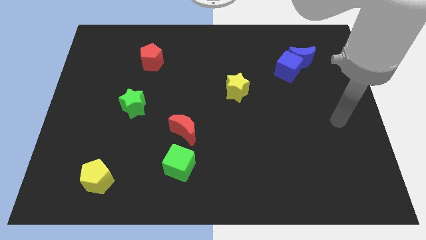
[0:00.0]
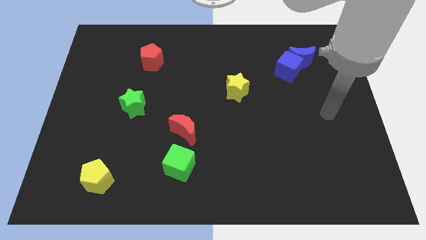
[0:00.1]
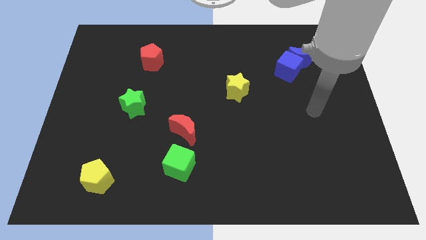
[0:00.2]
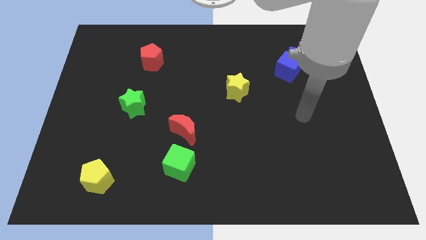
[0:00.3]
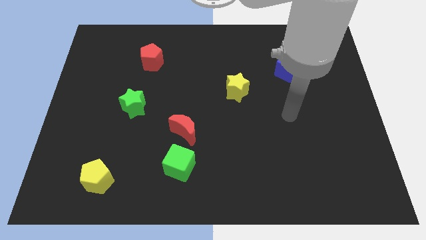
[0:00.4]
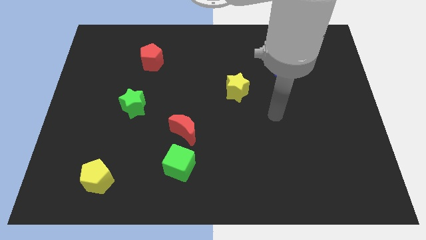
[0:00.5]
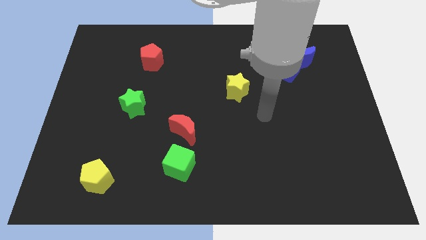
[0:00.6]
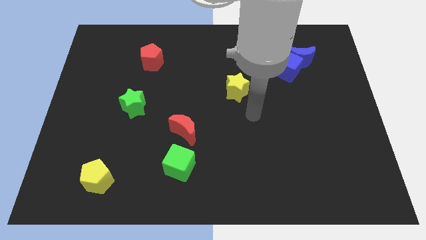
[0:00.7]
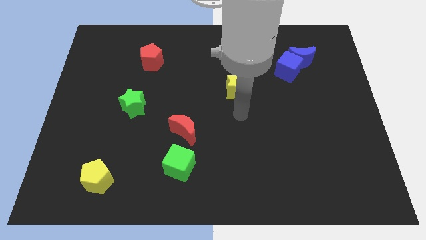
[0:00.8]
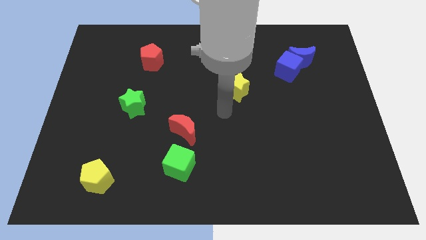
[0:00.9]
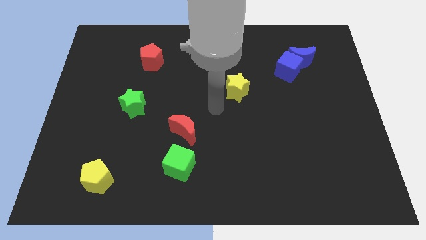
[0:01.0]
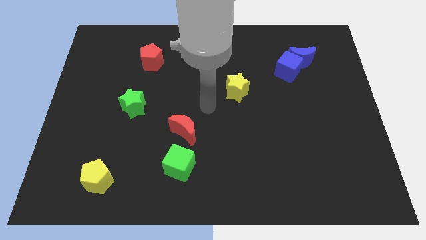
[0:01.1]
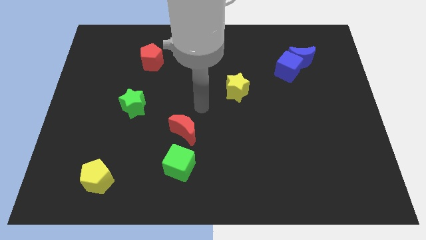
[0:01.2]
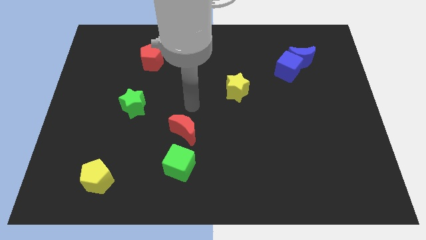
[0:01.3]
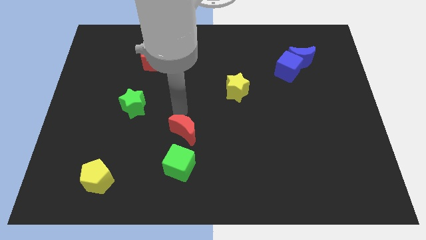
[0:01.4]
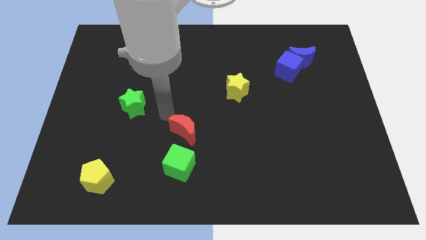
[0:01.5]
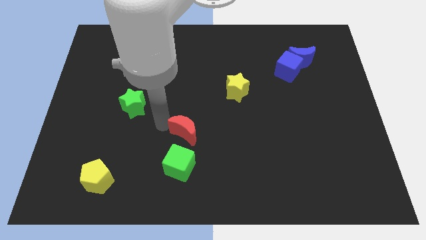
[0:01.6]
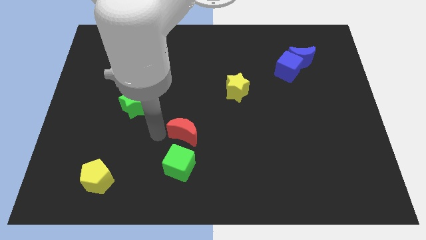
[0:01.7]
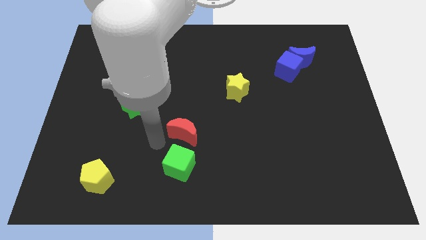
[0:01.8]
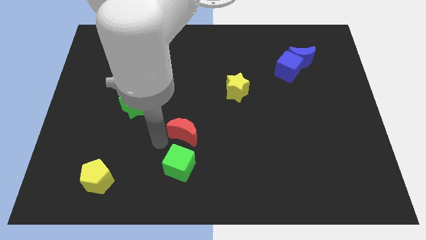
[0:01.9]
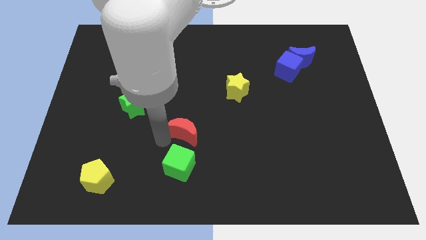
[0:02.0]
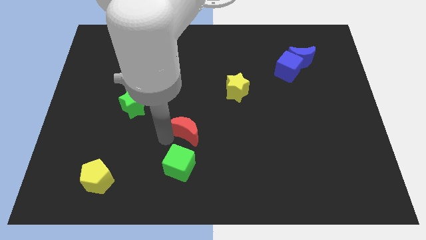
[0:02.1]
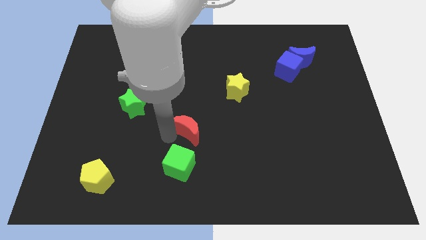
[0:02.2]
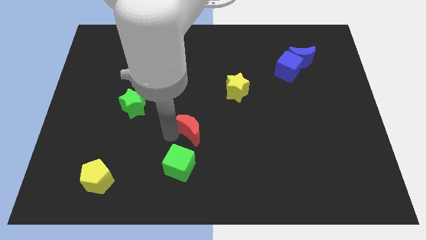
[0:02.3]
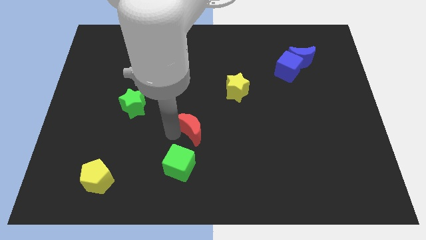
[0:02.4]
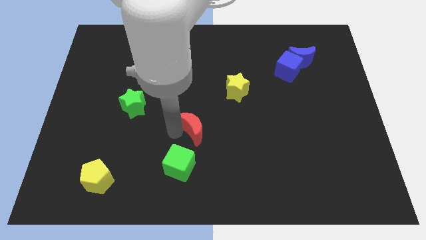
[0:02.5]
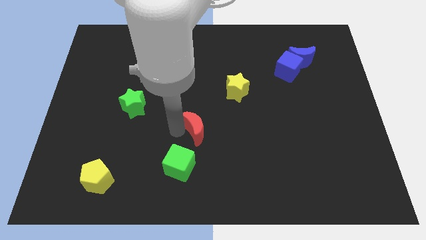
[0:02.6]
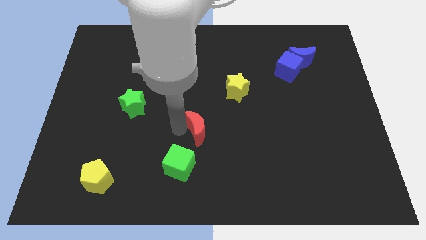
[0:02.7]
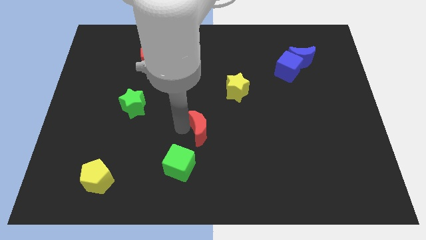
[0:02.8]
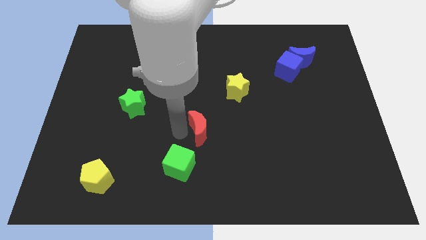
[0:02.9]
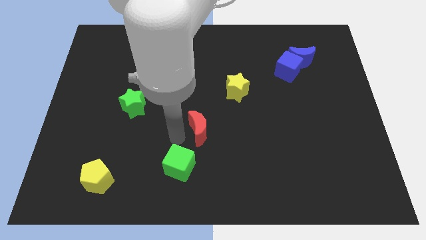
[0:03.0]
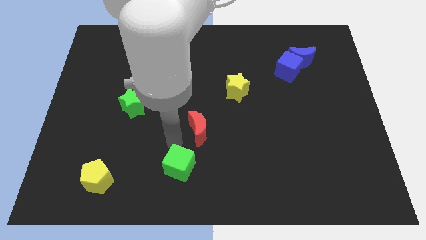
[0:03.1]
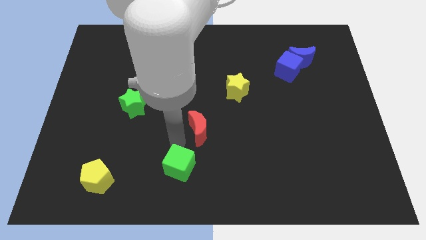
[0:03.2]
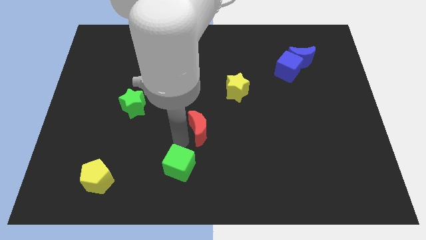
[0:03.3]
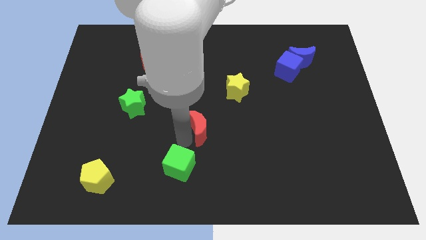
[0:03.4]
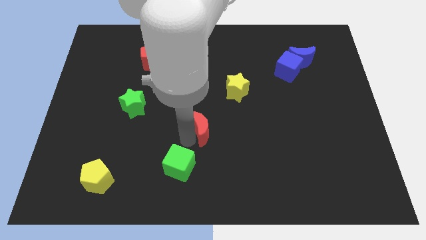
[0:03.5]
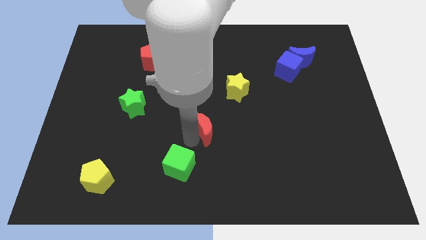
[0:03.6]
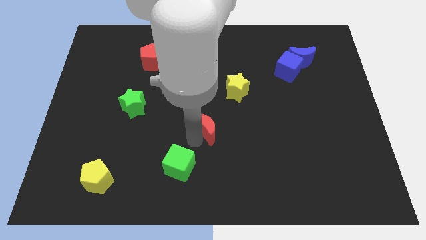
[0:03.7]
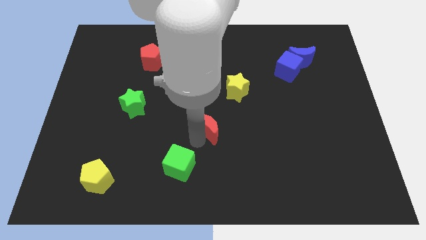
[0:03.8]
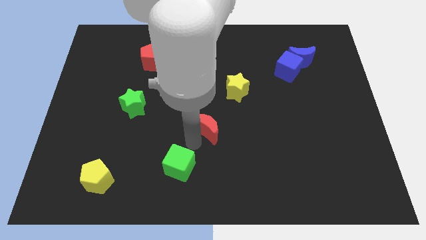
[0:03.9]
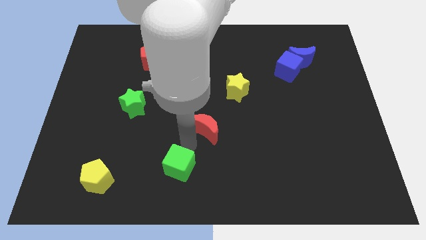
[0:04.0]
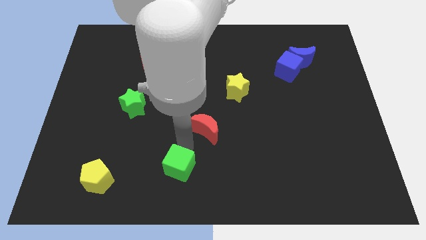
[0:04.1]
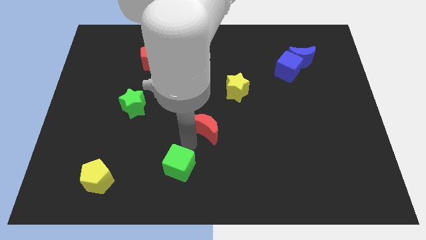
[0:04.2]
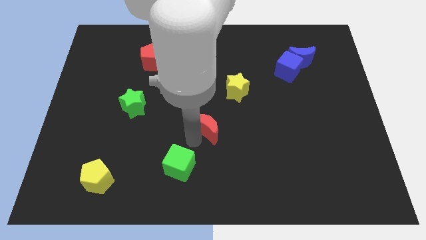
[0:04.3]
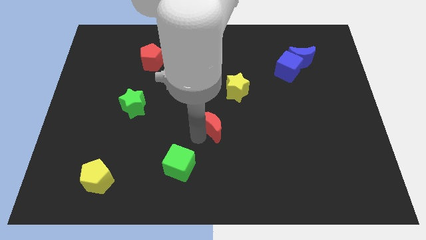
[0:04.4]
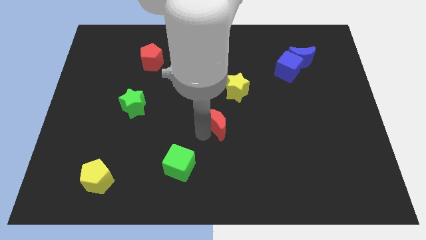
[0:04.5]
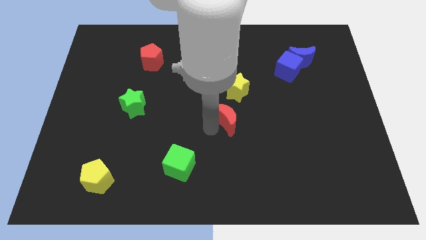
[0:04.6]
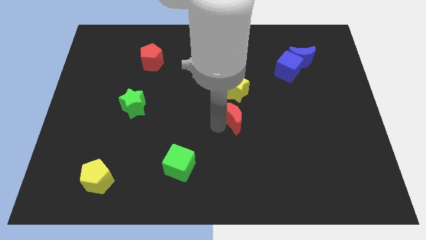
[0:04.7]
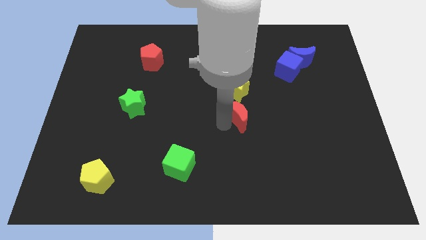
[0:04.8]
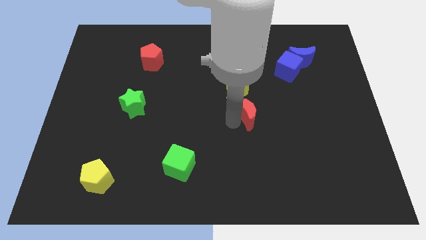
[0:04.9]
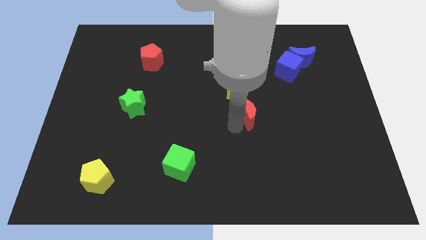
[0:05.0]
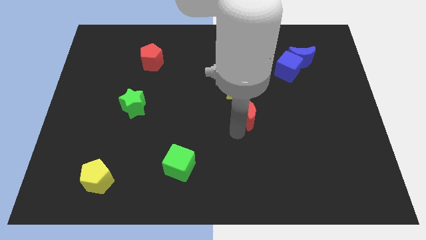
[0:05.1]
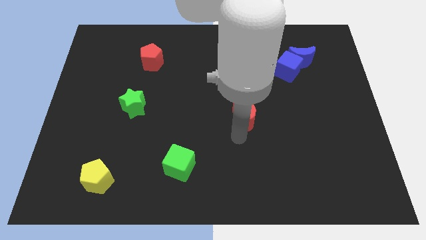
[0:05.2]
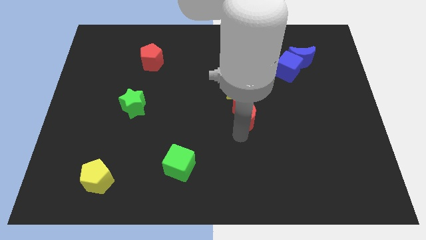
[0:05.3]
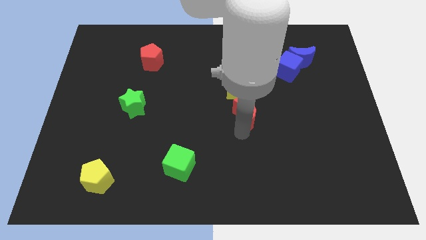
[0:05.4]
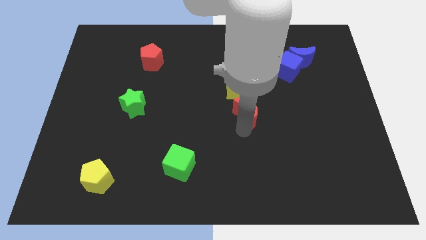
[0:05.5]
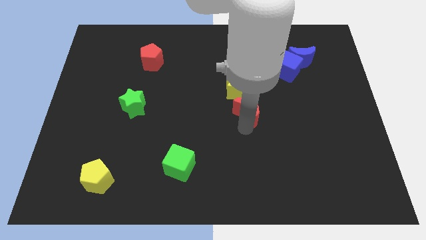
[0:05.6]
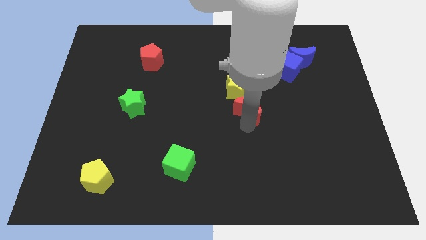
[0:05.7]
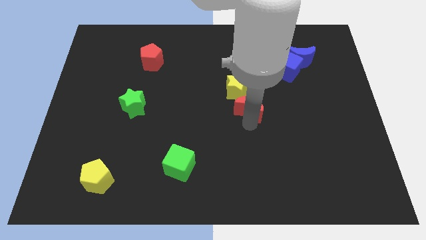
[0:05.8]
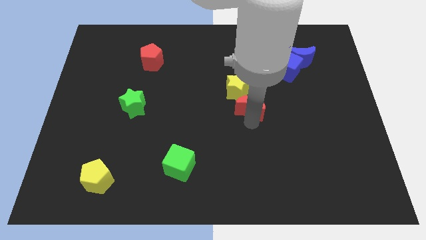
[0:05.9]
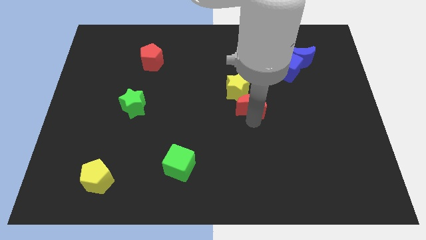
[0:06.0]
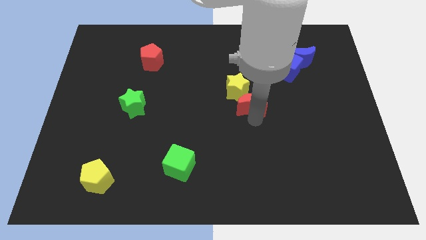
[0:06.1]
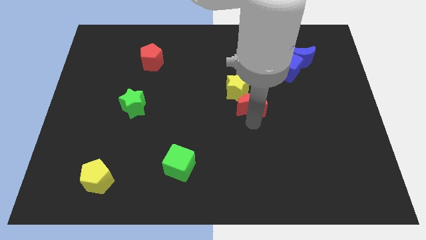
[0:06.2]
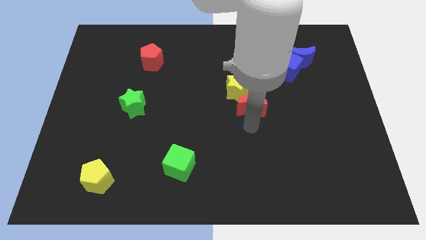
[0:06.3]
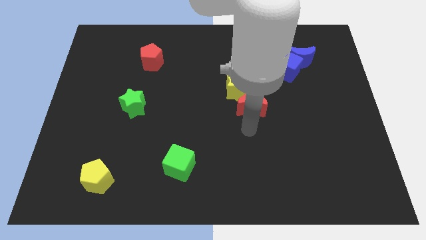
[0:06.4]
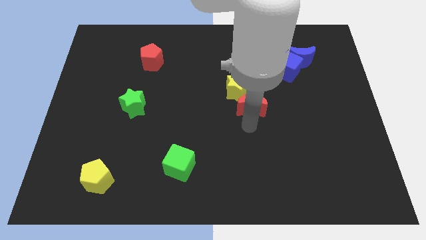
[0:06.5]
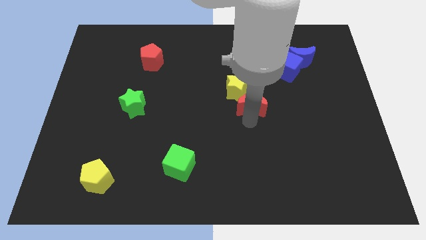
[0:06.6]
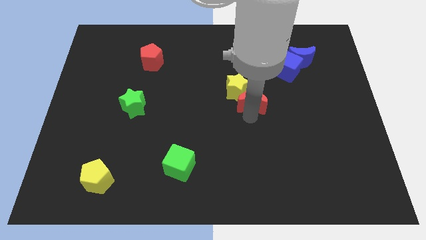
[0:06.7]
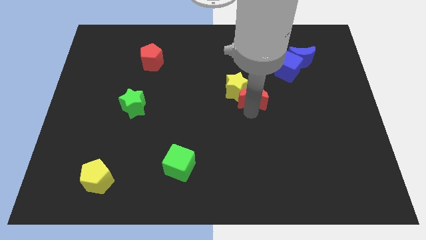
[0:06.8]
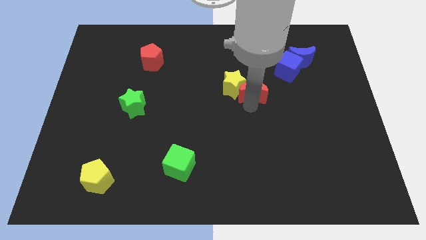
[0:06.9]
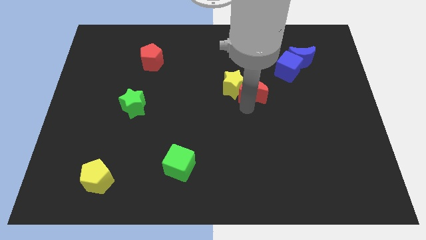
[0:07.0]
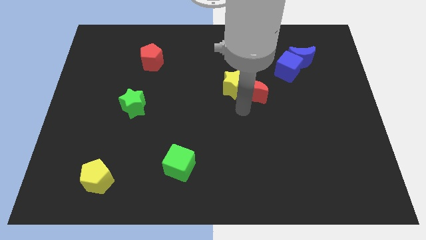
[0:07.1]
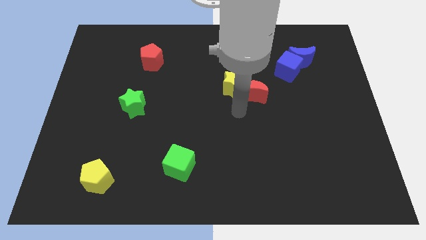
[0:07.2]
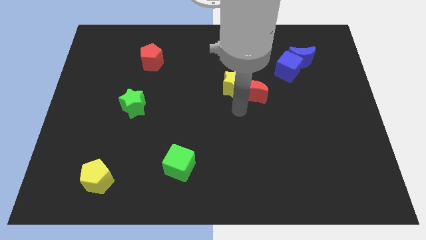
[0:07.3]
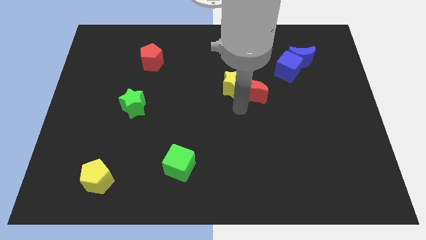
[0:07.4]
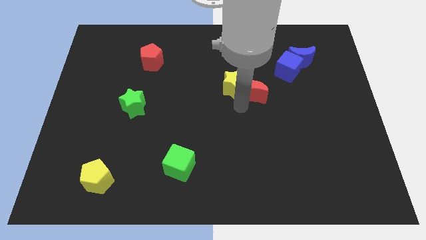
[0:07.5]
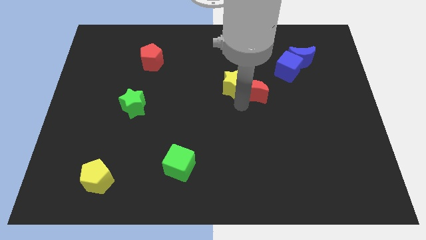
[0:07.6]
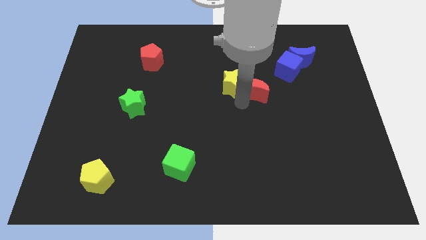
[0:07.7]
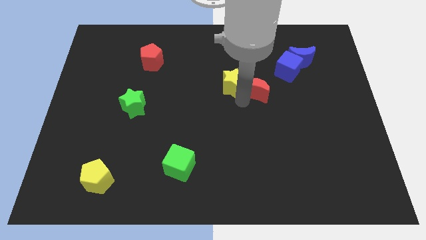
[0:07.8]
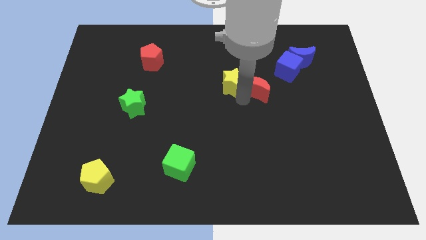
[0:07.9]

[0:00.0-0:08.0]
push the red moon up and to the right

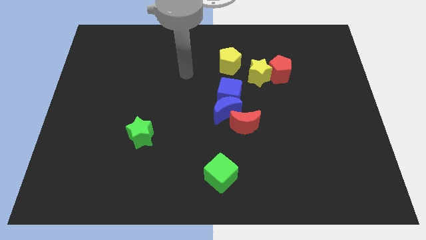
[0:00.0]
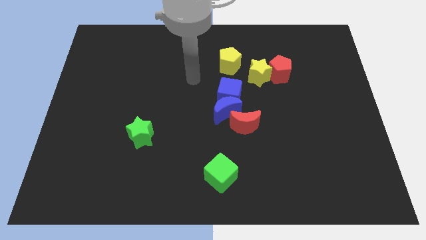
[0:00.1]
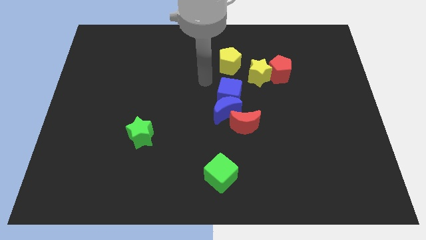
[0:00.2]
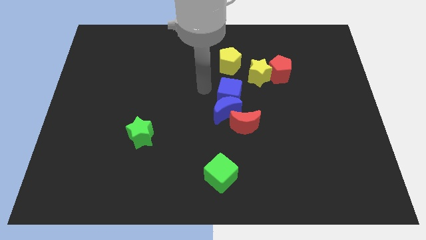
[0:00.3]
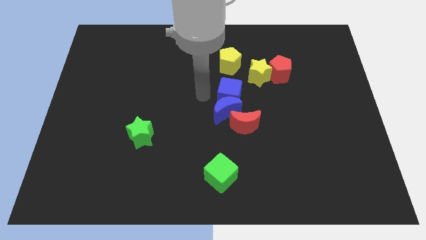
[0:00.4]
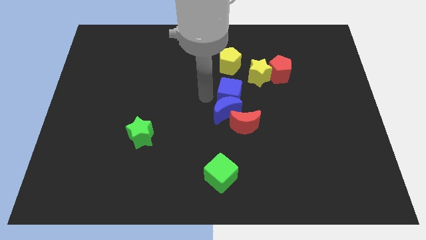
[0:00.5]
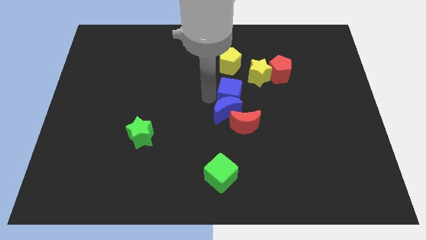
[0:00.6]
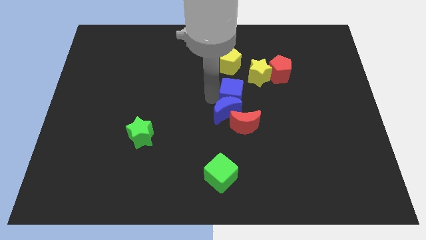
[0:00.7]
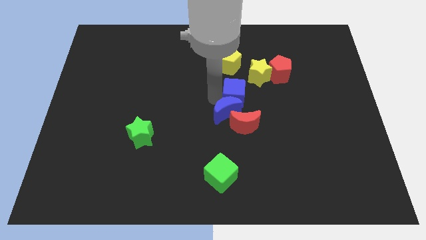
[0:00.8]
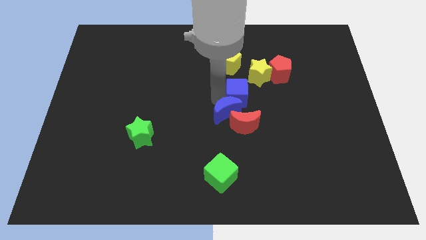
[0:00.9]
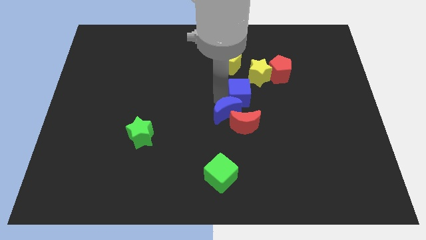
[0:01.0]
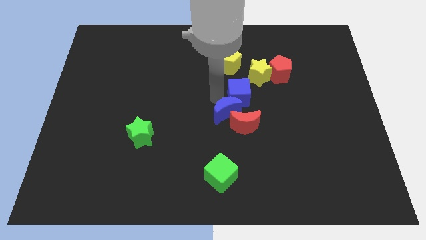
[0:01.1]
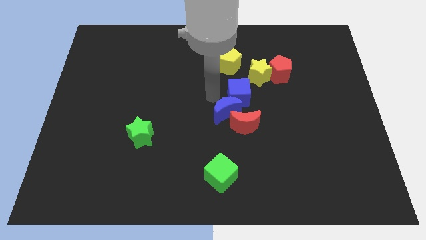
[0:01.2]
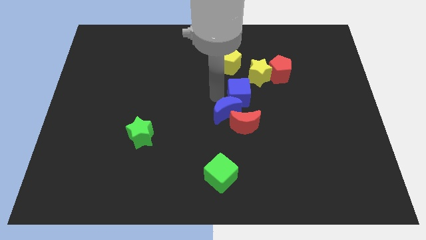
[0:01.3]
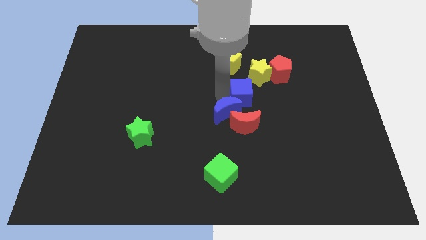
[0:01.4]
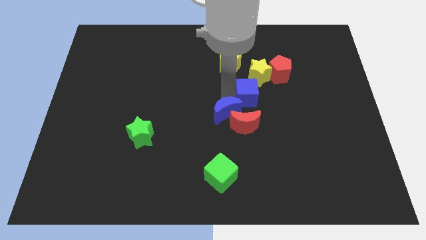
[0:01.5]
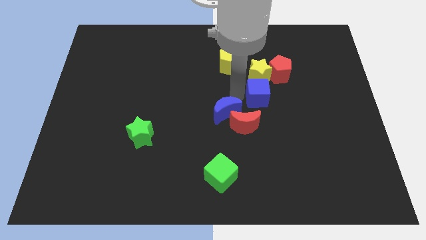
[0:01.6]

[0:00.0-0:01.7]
slightly move the blue cube to the right
